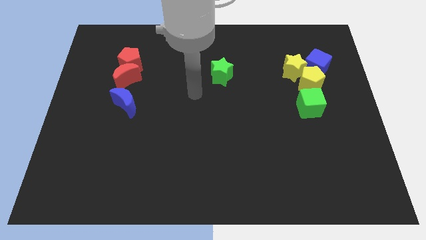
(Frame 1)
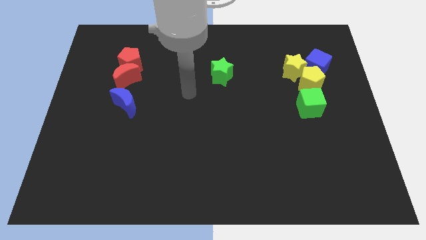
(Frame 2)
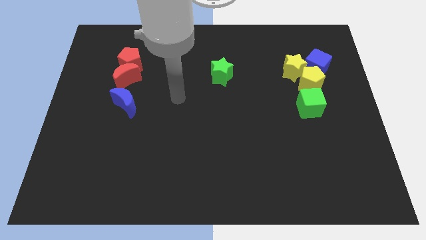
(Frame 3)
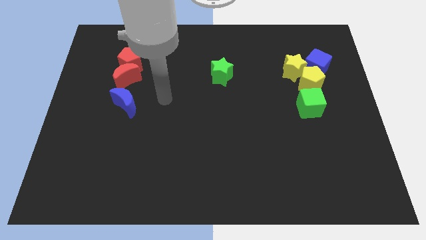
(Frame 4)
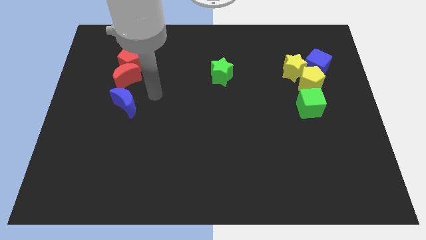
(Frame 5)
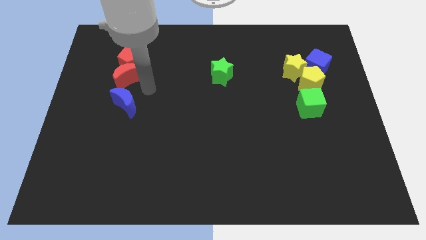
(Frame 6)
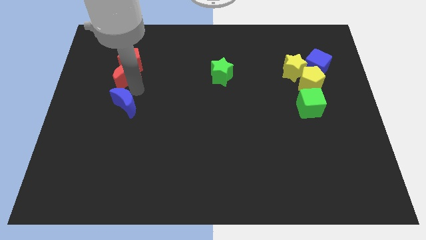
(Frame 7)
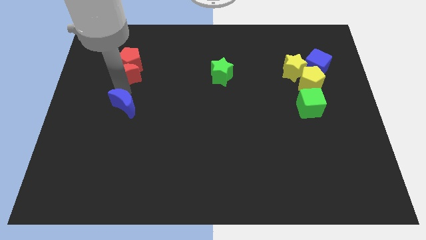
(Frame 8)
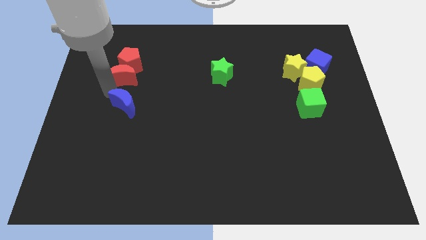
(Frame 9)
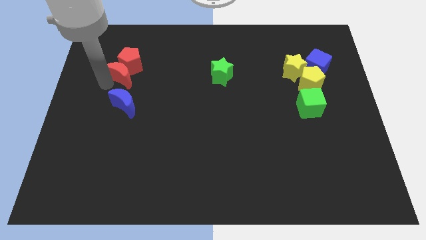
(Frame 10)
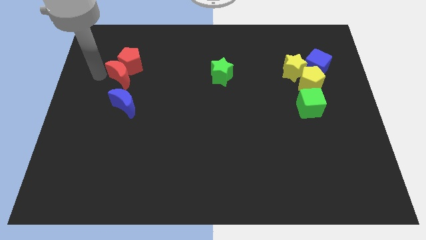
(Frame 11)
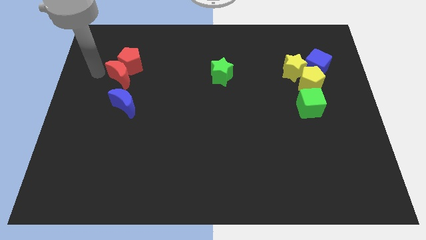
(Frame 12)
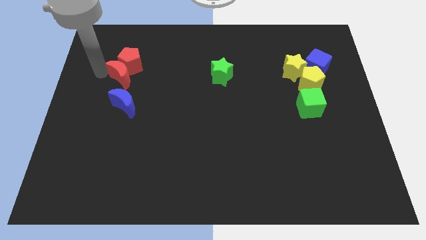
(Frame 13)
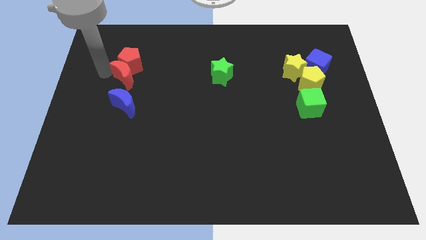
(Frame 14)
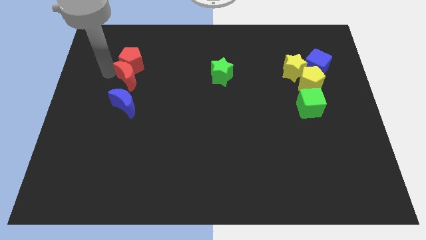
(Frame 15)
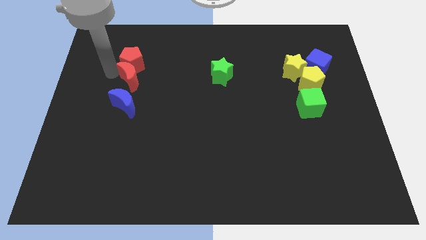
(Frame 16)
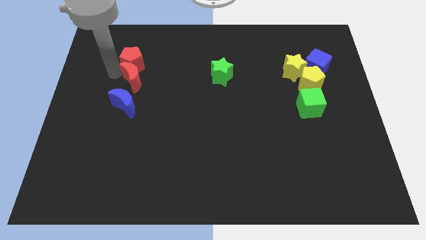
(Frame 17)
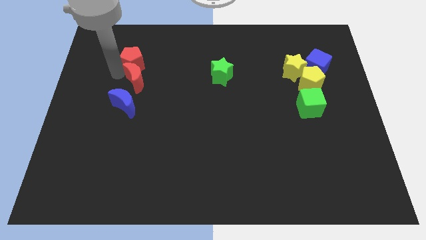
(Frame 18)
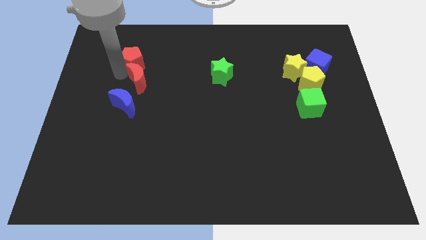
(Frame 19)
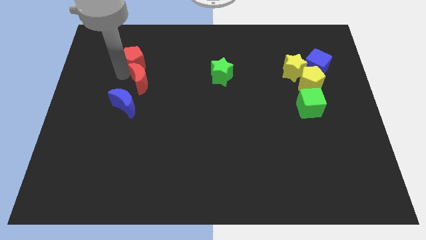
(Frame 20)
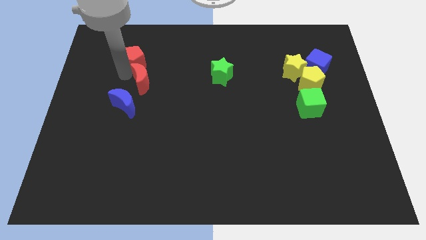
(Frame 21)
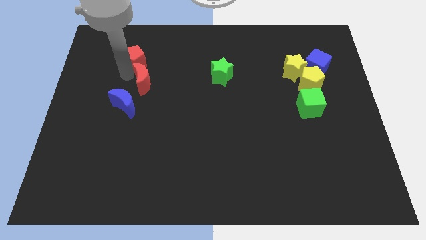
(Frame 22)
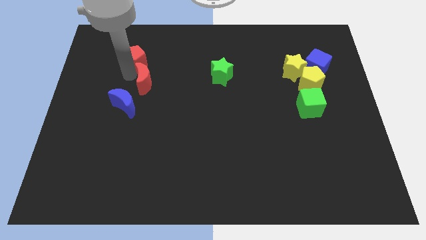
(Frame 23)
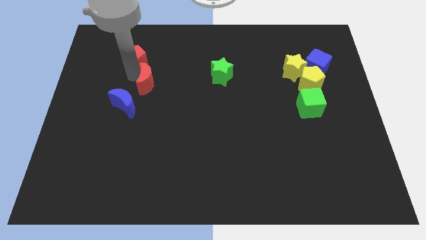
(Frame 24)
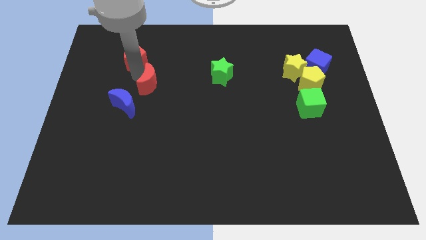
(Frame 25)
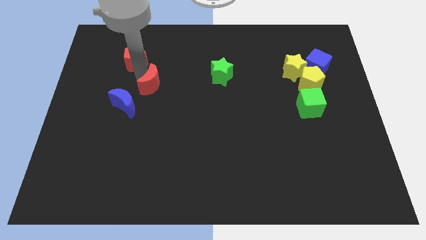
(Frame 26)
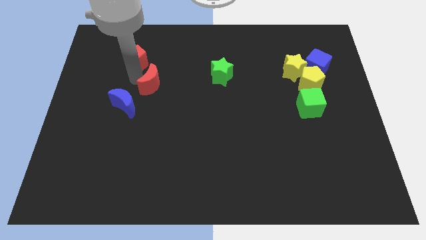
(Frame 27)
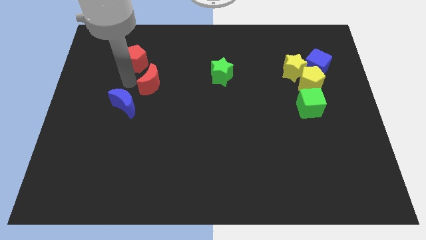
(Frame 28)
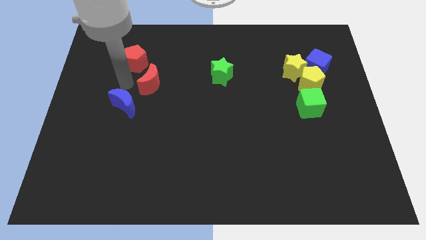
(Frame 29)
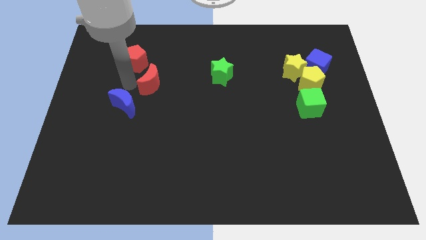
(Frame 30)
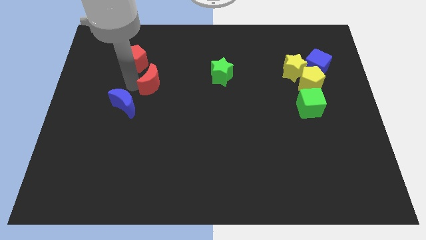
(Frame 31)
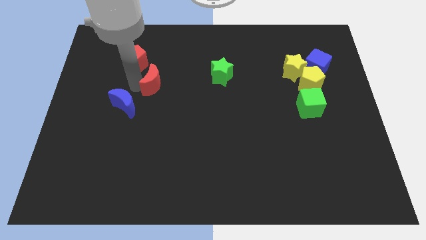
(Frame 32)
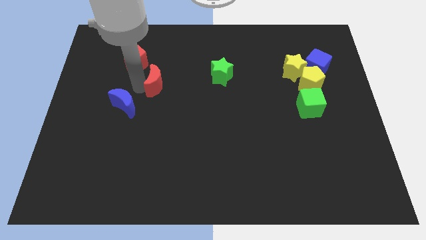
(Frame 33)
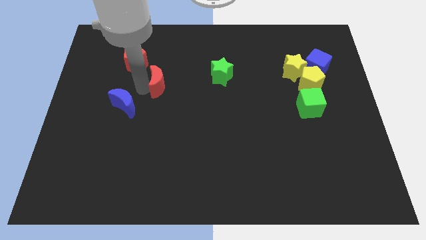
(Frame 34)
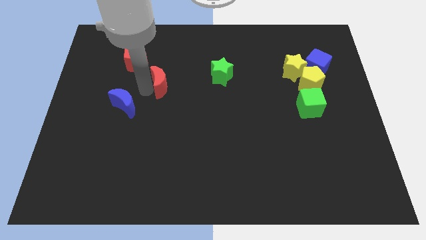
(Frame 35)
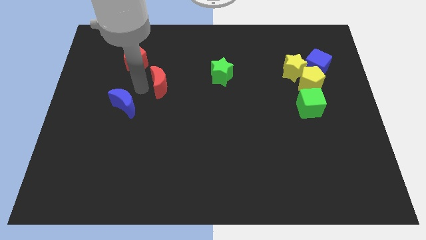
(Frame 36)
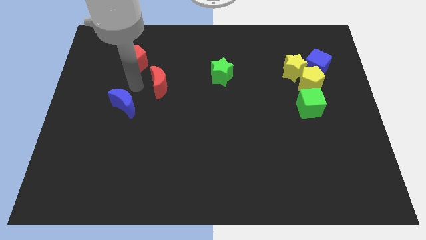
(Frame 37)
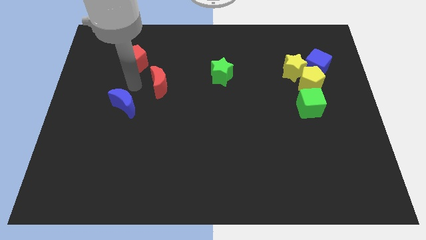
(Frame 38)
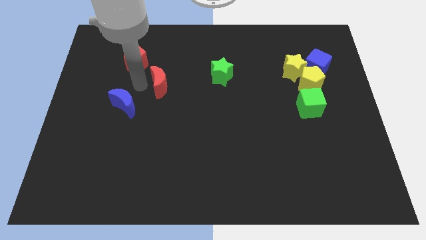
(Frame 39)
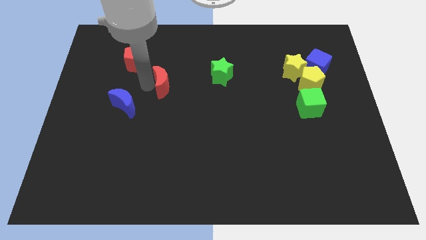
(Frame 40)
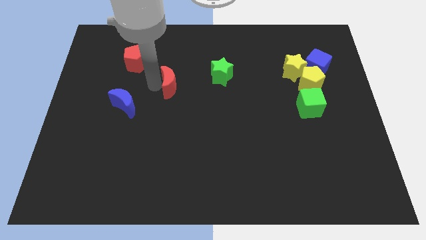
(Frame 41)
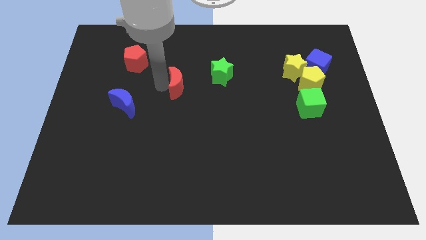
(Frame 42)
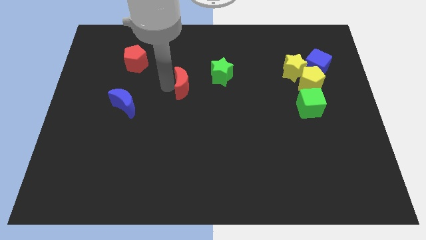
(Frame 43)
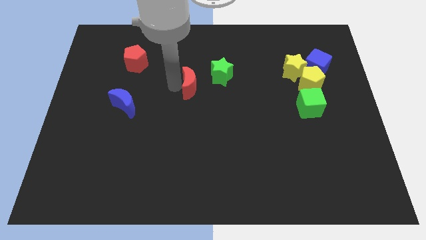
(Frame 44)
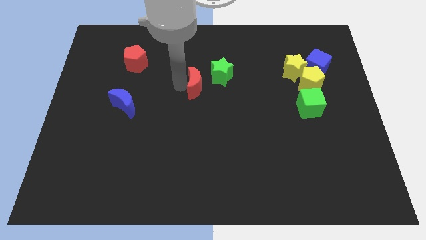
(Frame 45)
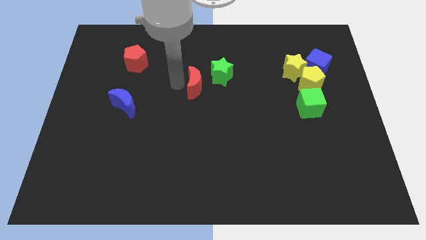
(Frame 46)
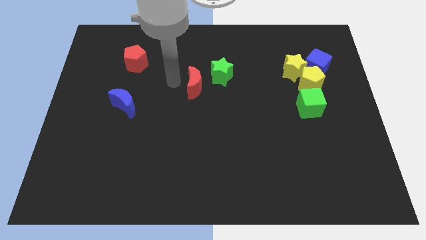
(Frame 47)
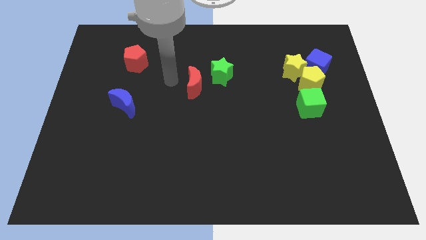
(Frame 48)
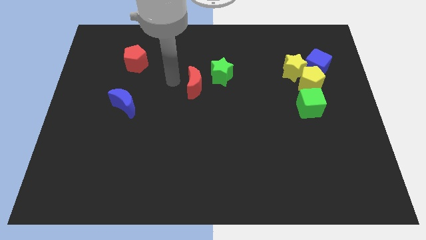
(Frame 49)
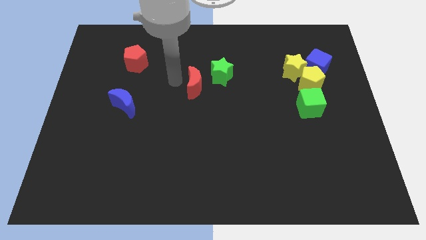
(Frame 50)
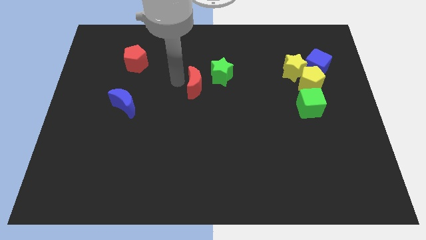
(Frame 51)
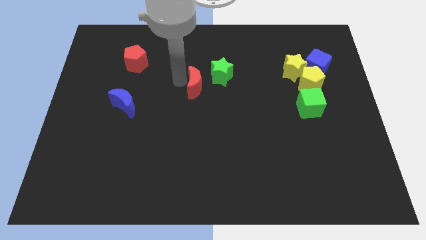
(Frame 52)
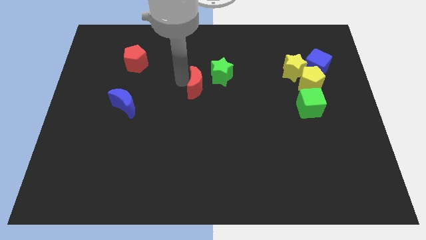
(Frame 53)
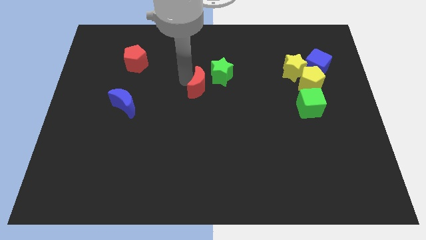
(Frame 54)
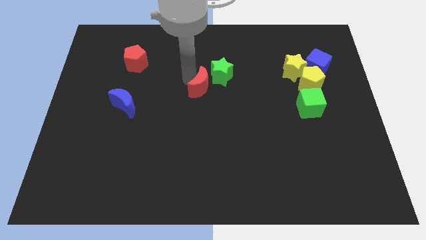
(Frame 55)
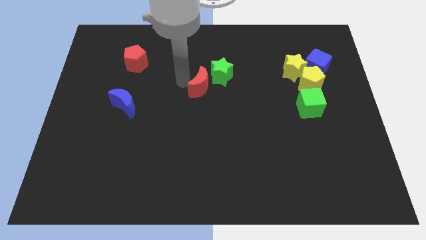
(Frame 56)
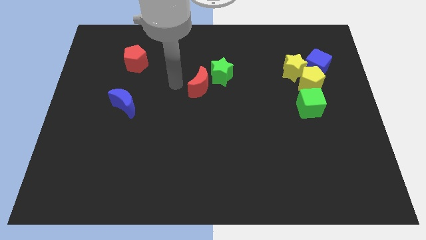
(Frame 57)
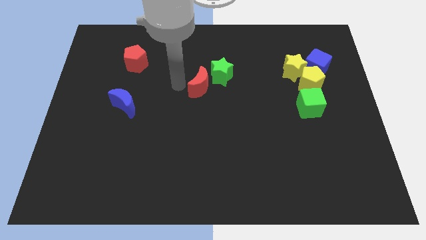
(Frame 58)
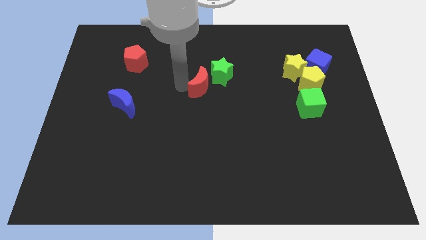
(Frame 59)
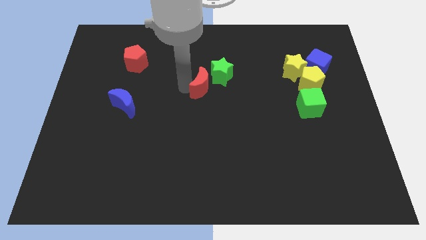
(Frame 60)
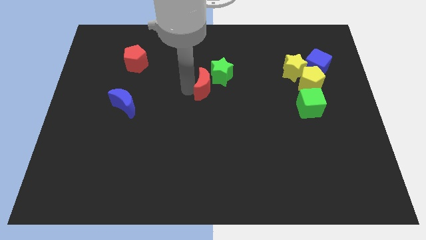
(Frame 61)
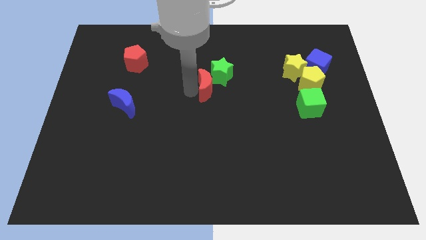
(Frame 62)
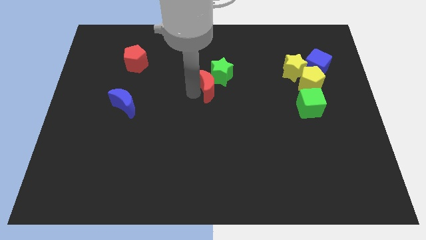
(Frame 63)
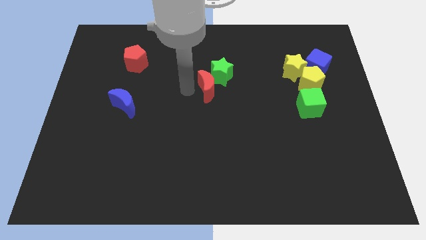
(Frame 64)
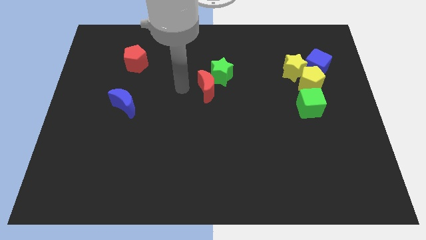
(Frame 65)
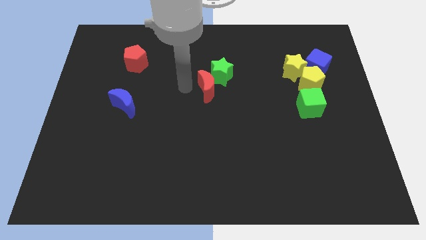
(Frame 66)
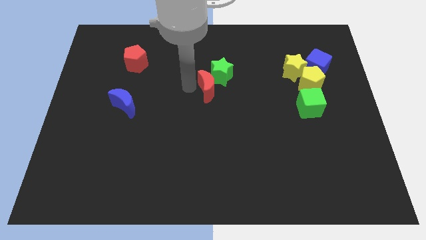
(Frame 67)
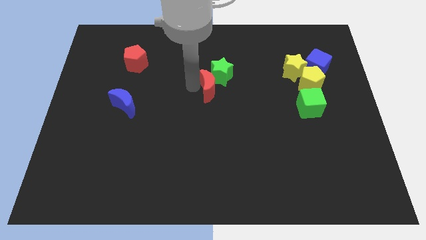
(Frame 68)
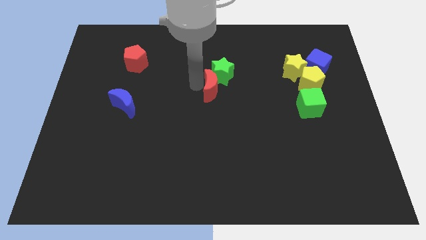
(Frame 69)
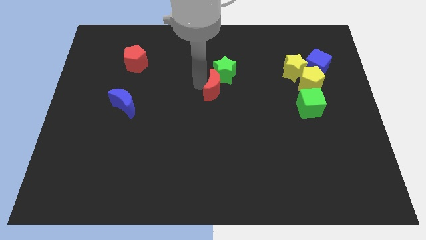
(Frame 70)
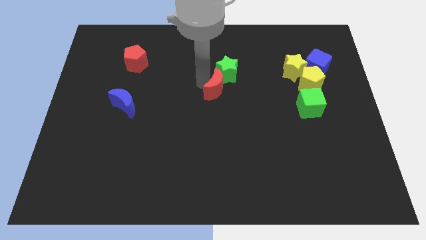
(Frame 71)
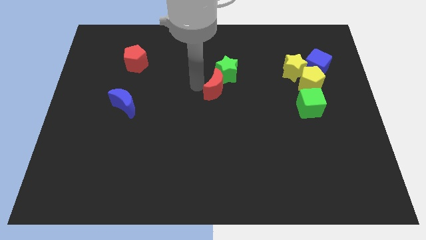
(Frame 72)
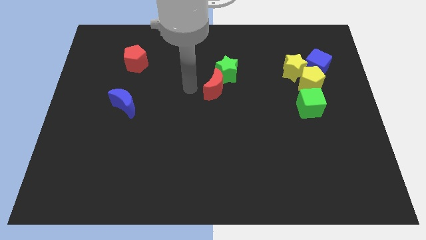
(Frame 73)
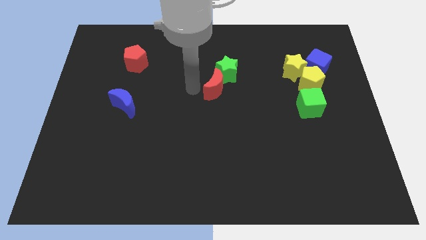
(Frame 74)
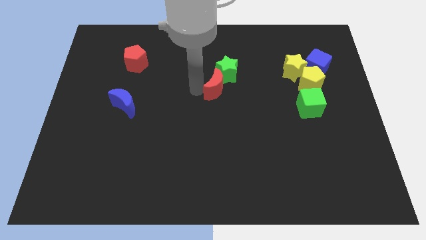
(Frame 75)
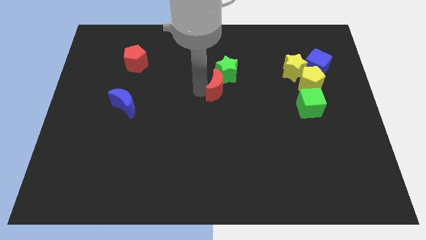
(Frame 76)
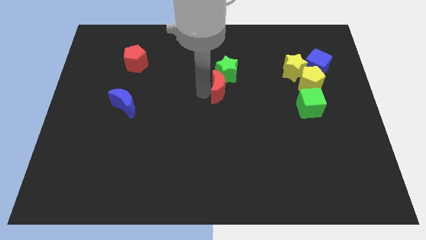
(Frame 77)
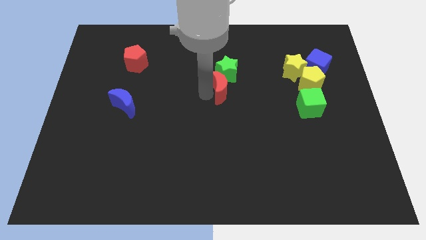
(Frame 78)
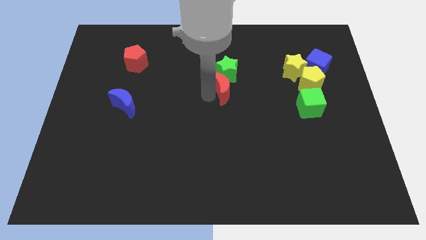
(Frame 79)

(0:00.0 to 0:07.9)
move the red moon to the bottom right side of the green star
